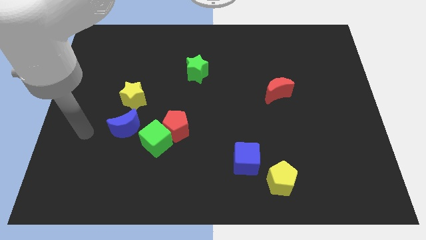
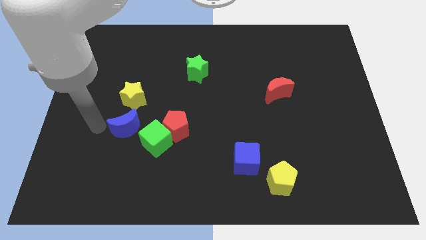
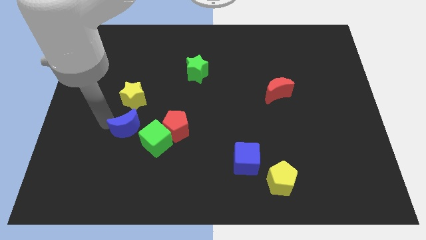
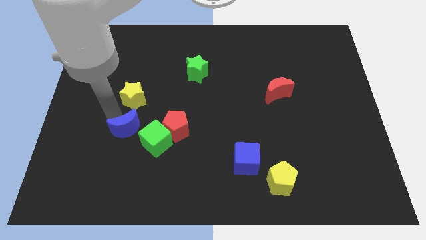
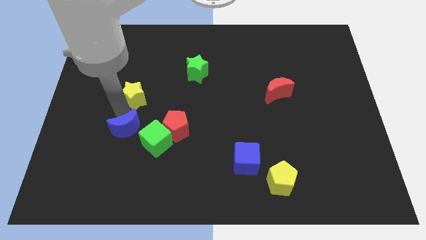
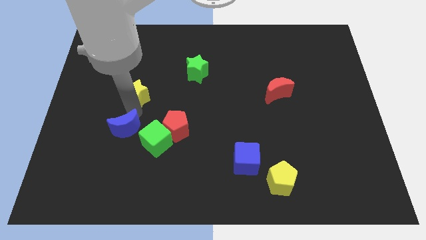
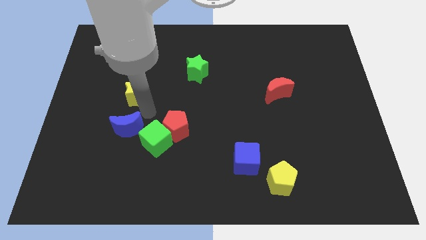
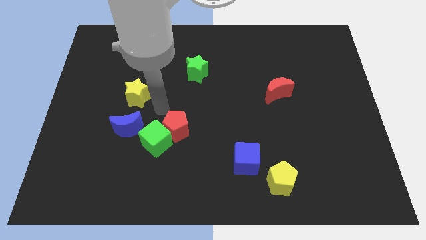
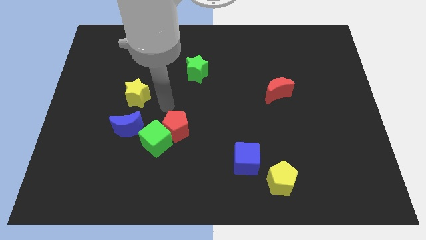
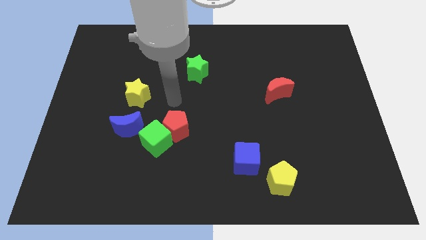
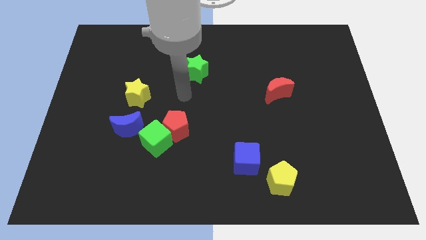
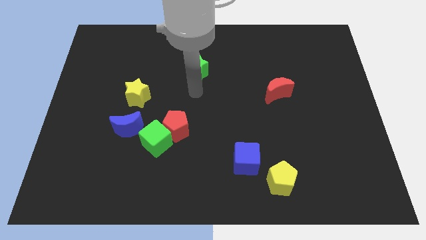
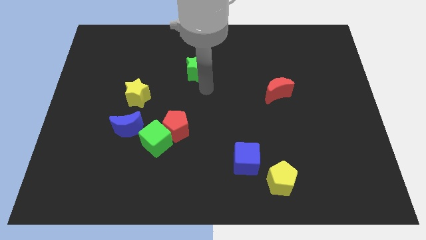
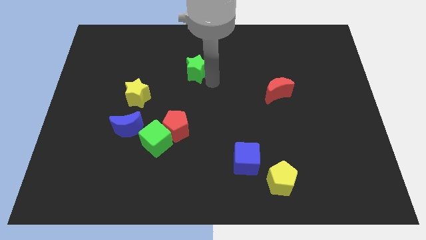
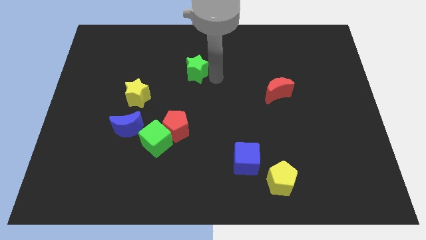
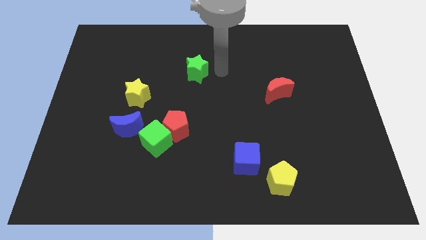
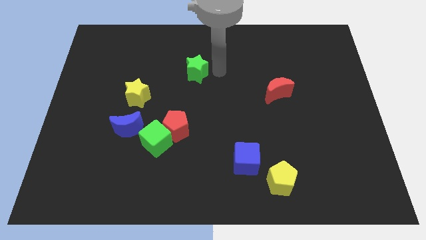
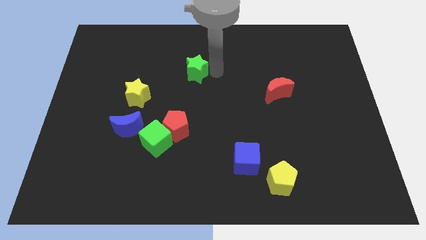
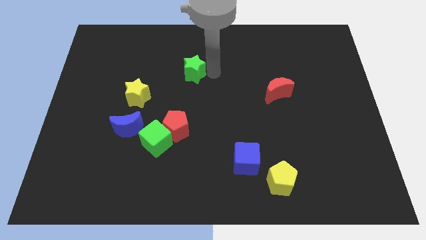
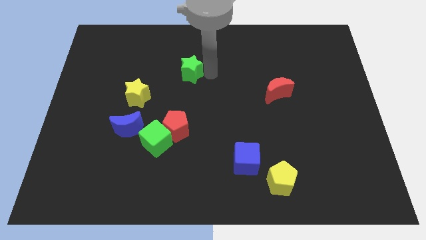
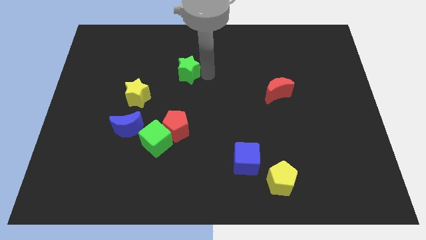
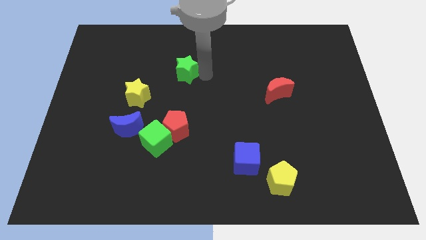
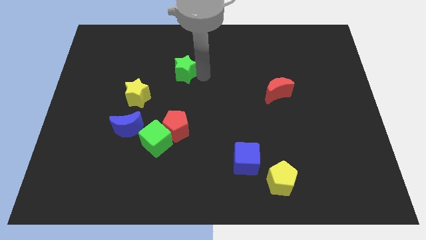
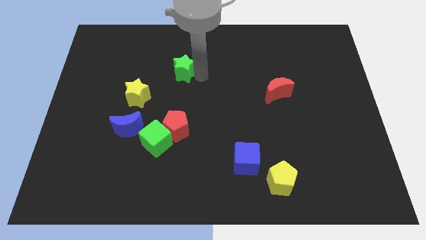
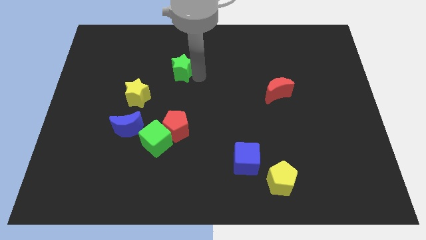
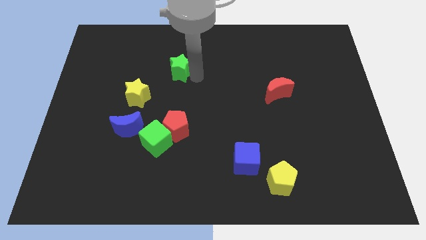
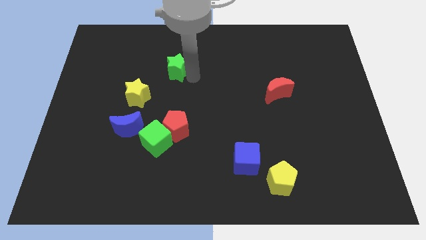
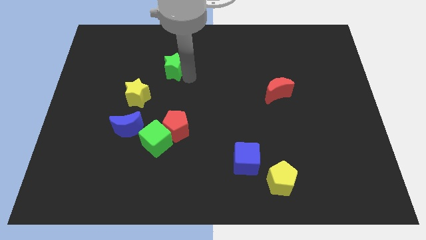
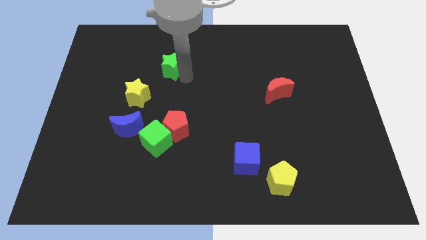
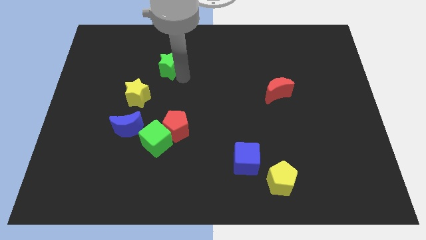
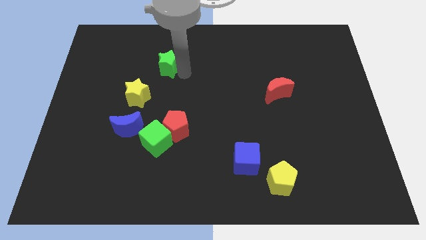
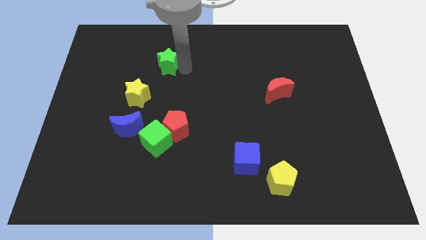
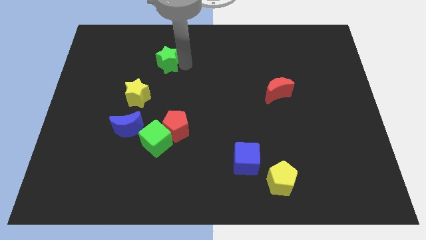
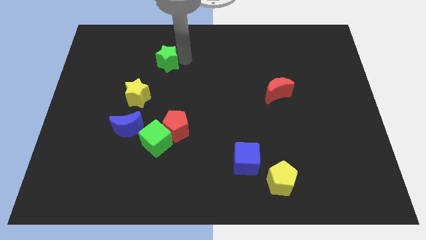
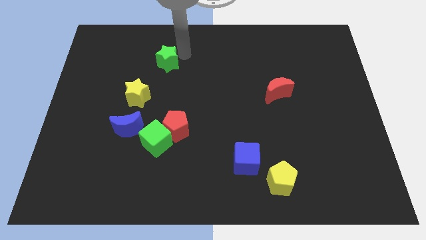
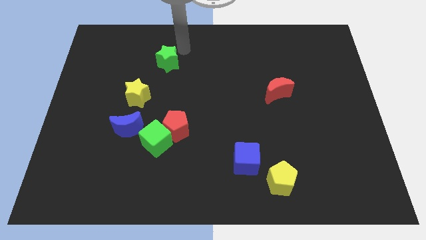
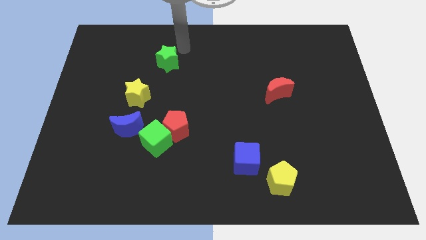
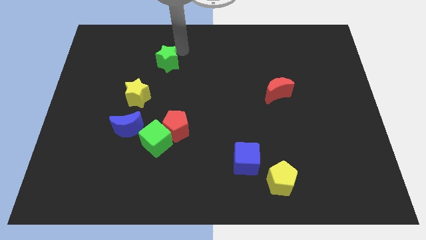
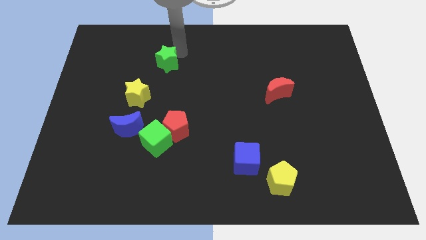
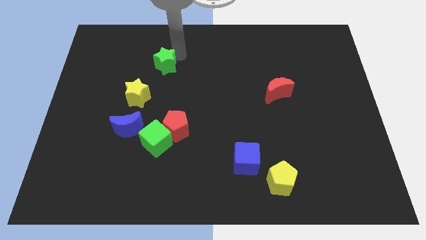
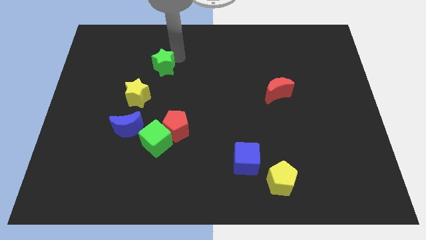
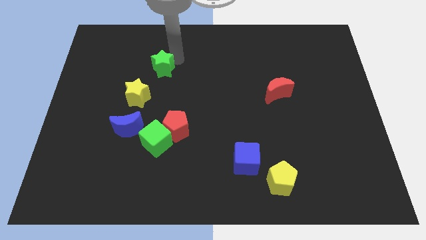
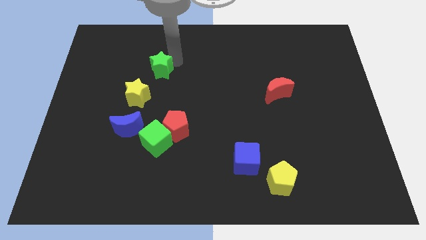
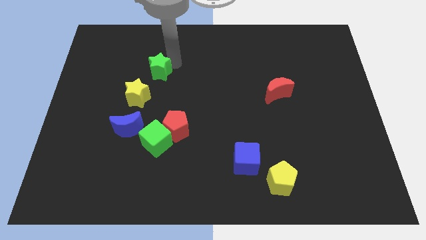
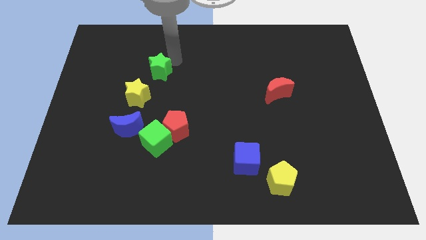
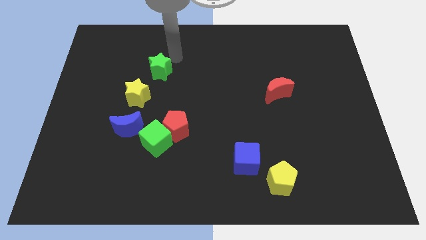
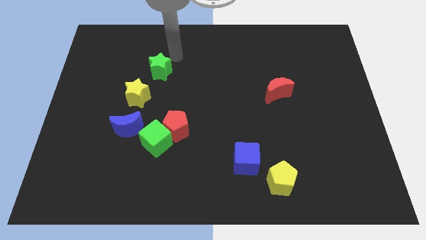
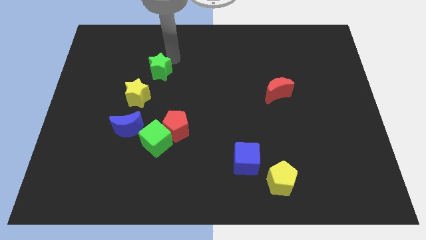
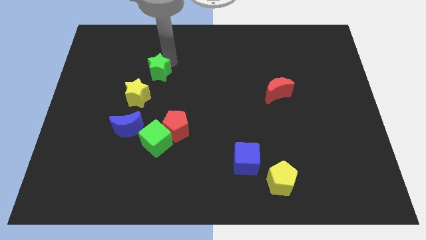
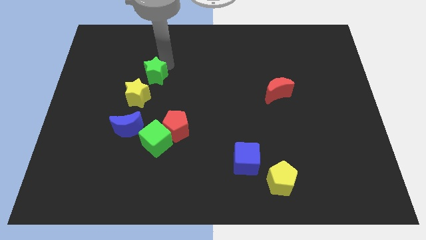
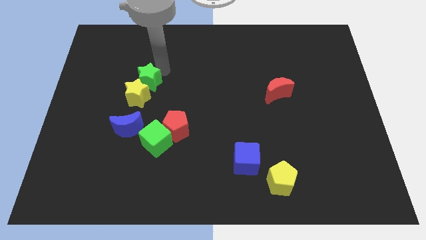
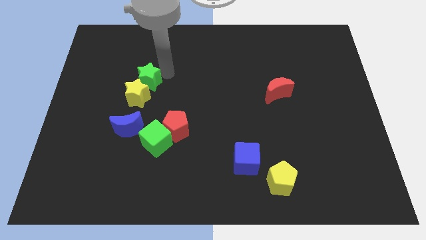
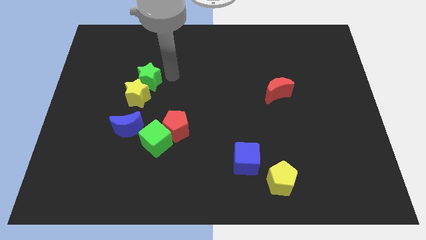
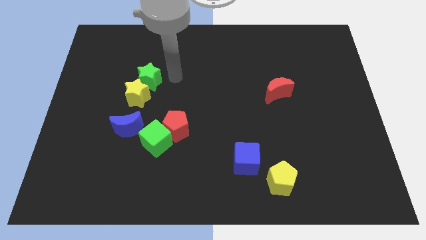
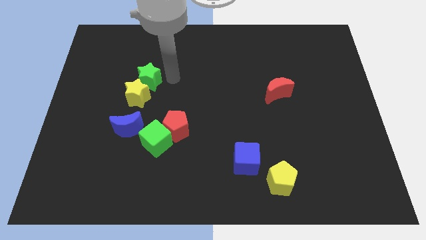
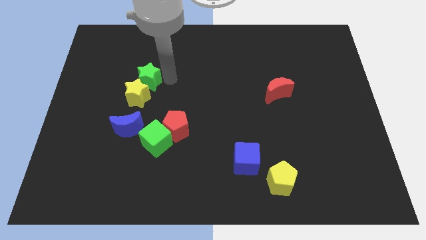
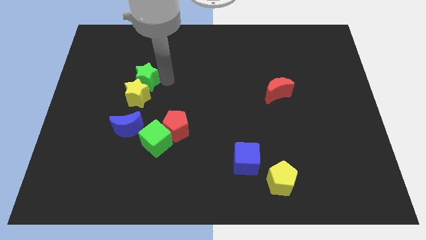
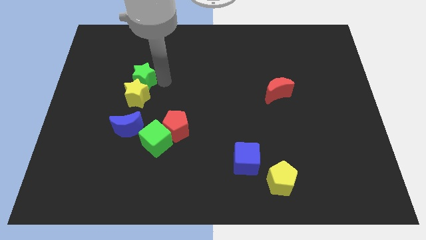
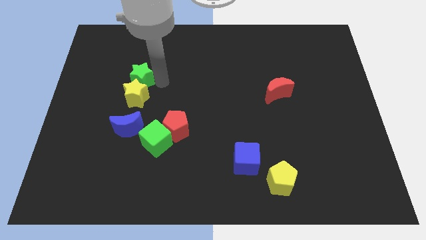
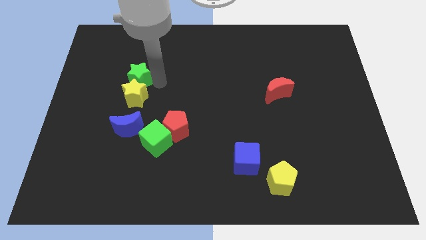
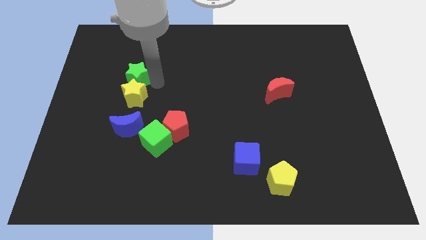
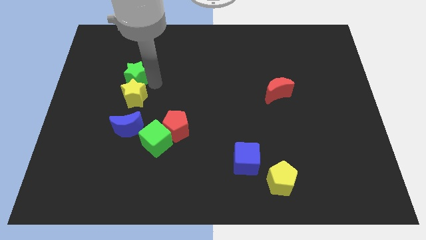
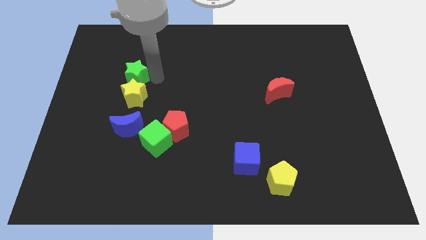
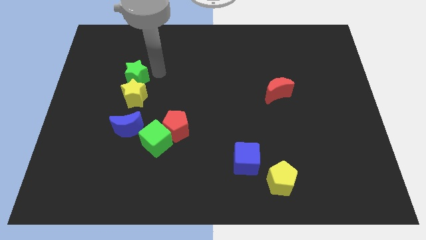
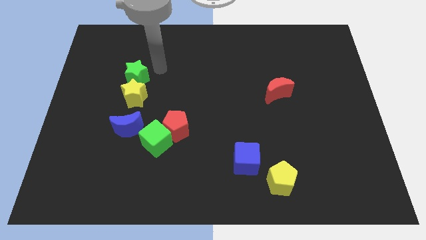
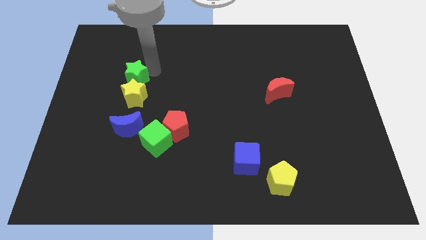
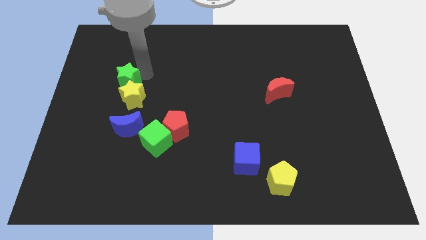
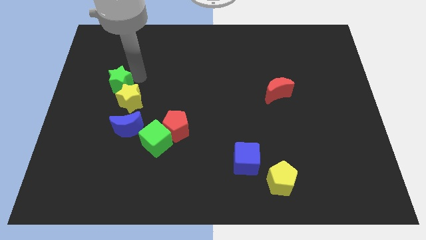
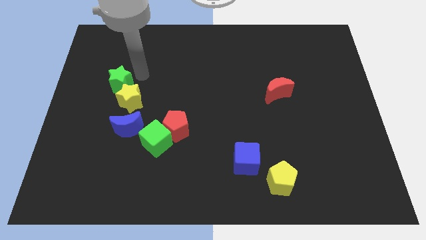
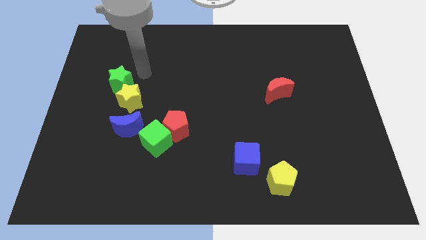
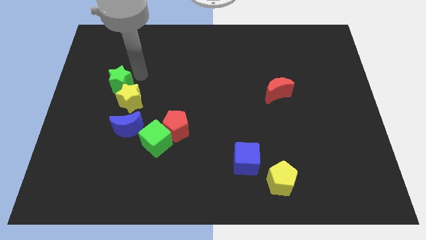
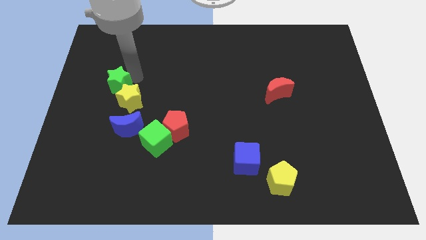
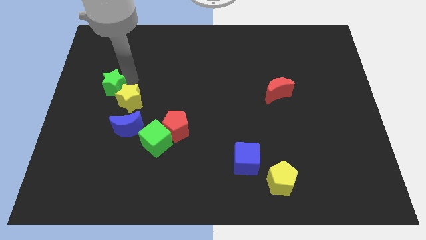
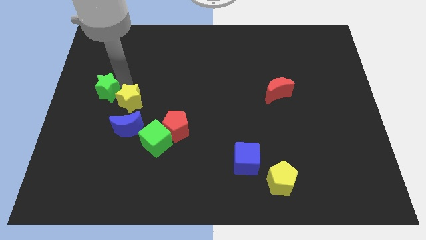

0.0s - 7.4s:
slide the green star to the left side

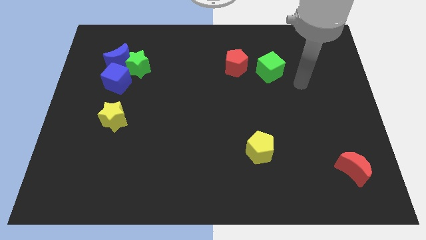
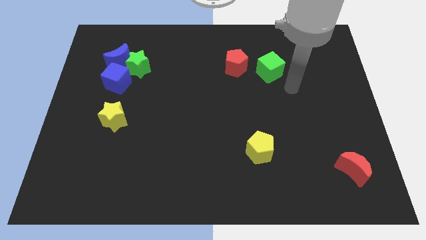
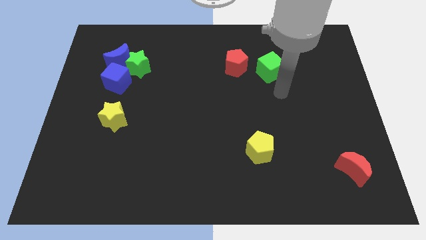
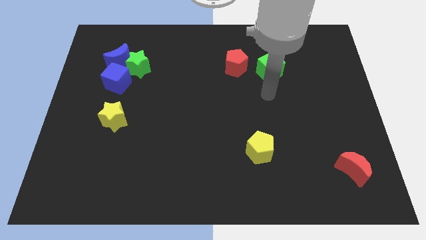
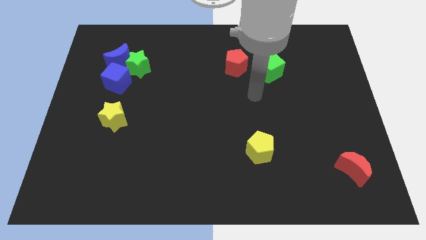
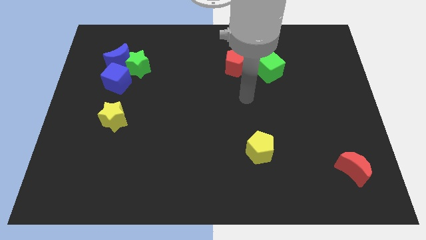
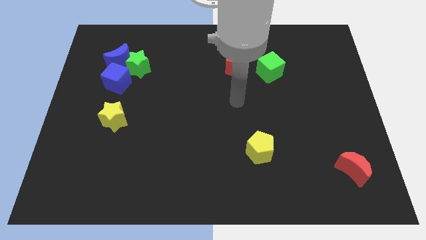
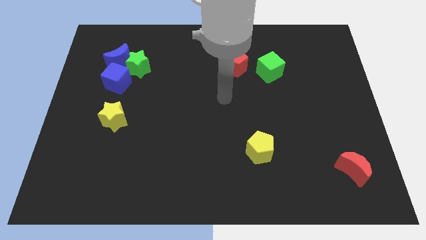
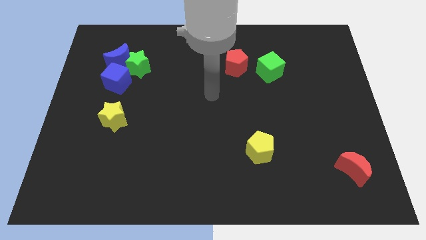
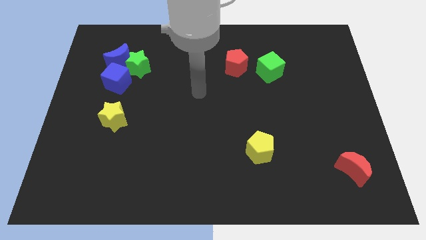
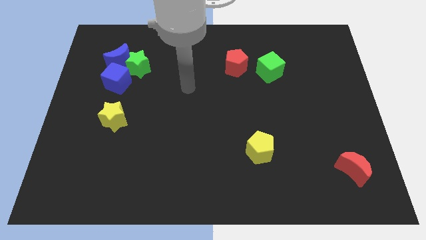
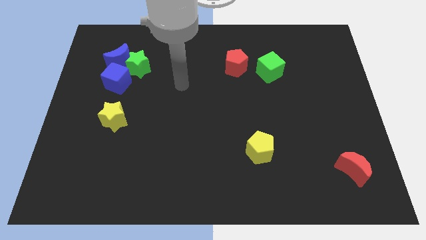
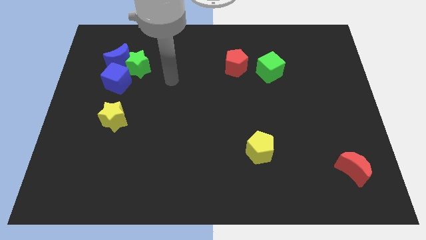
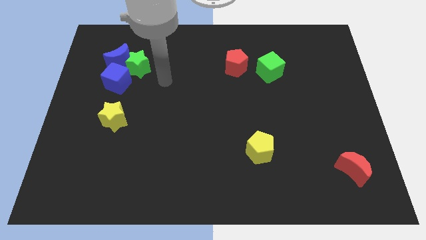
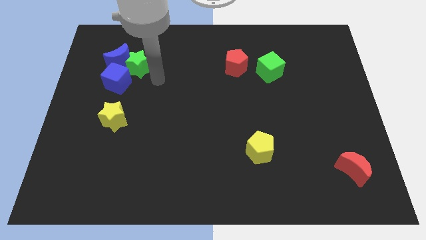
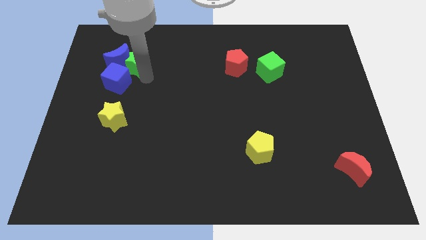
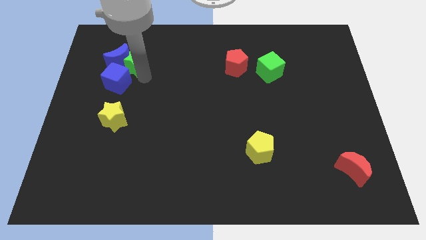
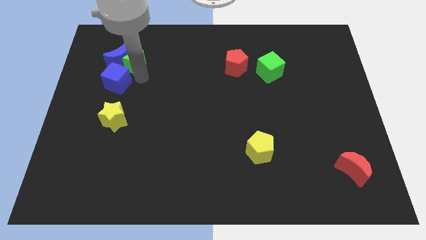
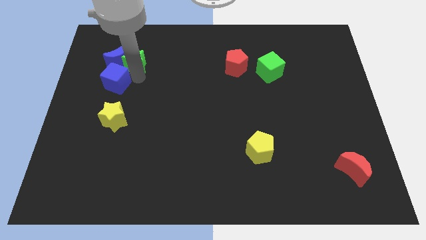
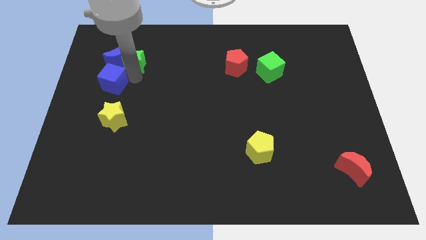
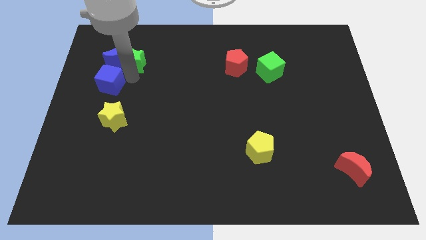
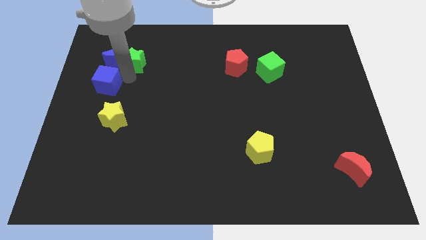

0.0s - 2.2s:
move the blue cube to the left side
